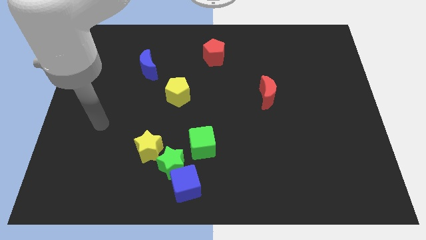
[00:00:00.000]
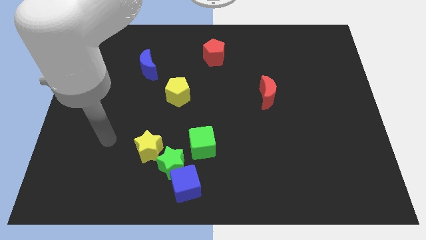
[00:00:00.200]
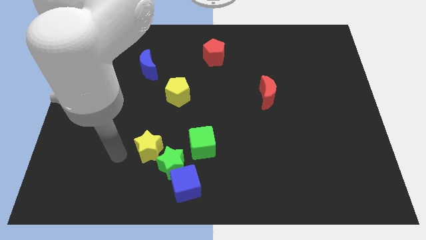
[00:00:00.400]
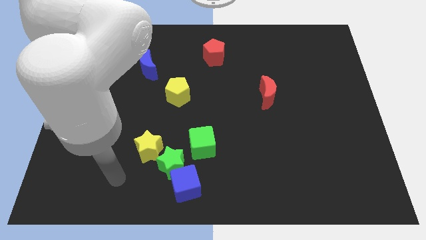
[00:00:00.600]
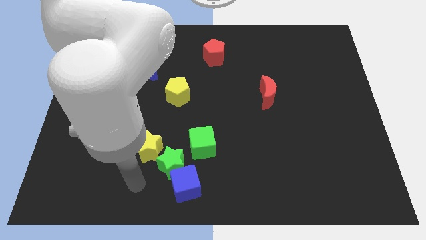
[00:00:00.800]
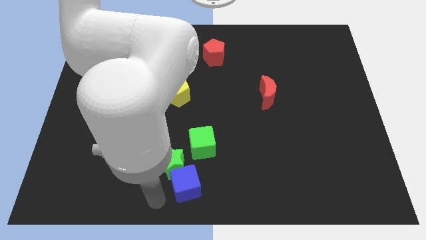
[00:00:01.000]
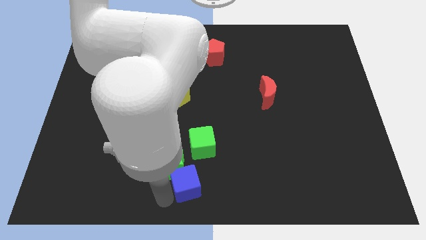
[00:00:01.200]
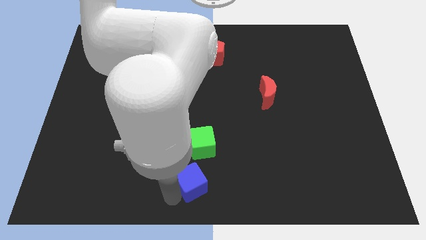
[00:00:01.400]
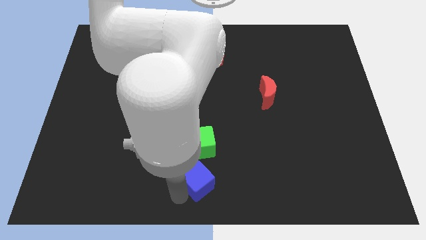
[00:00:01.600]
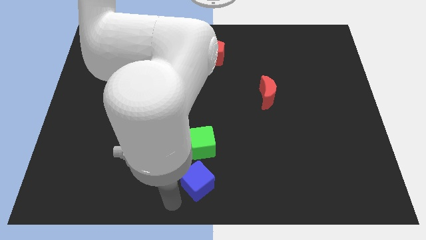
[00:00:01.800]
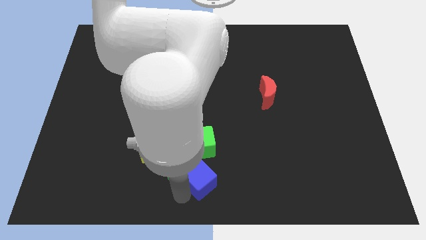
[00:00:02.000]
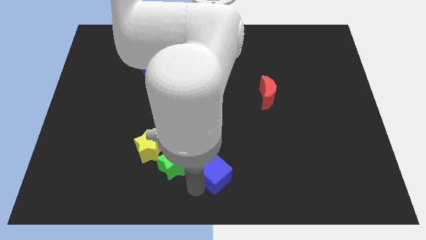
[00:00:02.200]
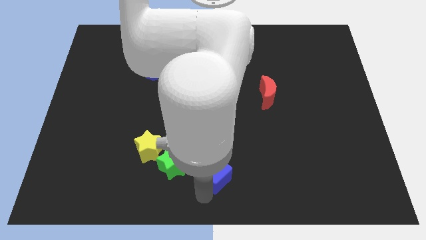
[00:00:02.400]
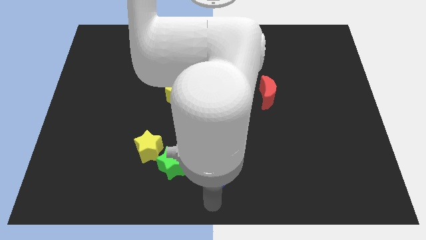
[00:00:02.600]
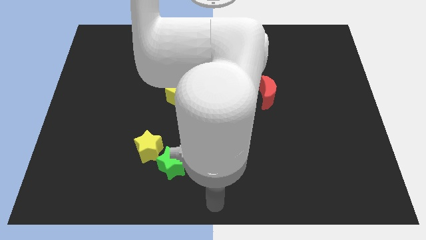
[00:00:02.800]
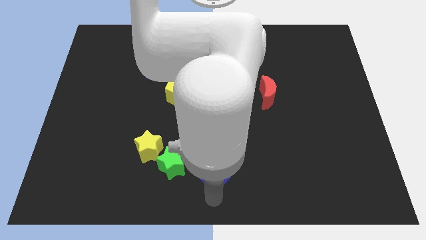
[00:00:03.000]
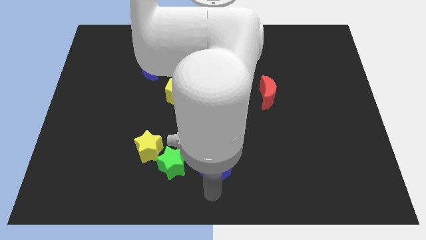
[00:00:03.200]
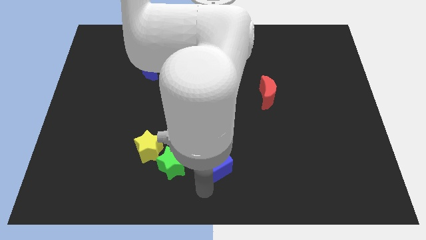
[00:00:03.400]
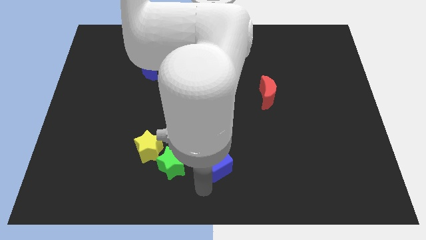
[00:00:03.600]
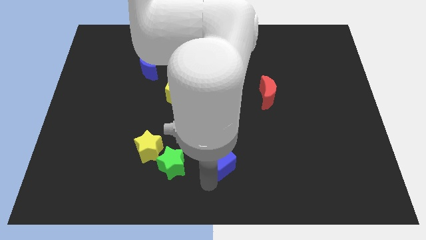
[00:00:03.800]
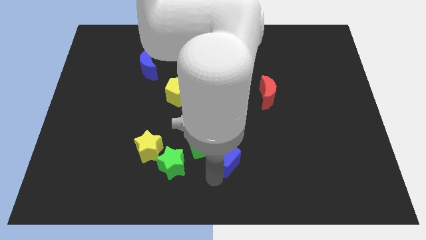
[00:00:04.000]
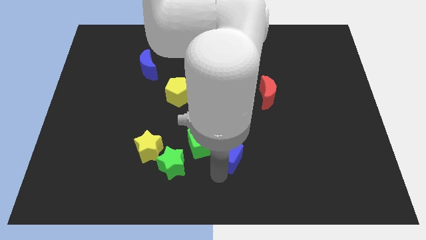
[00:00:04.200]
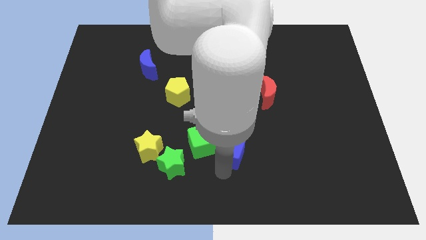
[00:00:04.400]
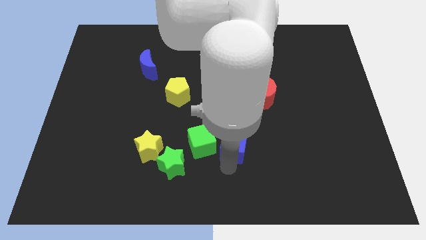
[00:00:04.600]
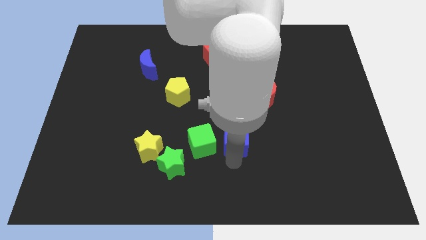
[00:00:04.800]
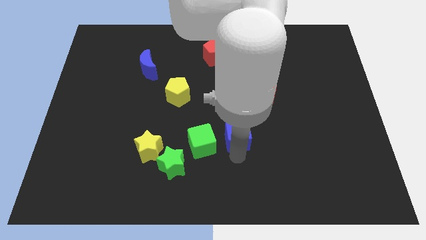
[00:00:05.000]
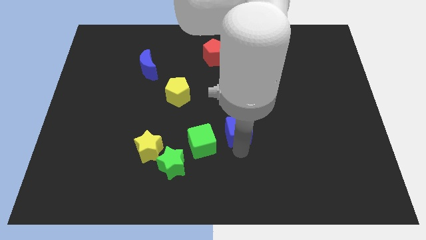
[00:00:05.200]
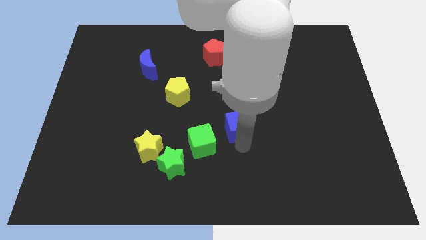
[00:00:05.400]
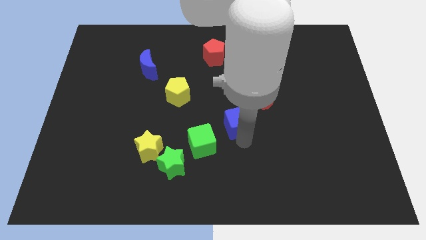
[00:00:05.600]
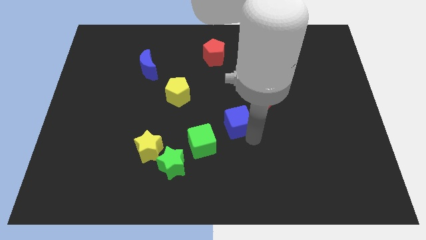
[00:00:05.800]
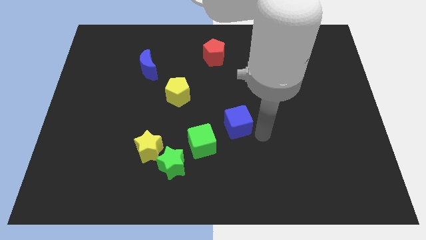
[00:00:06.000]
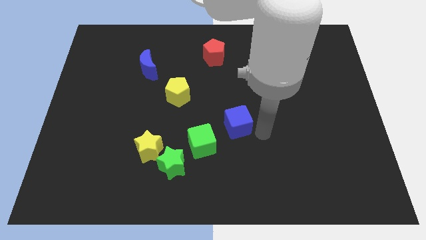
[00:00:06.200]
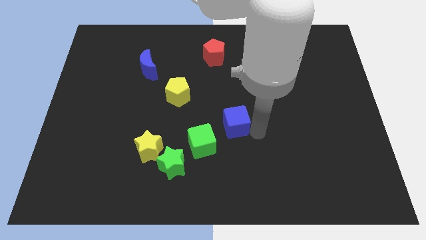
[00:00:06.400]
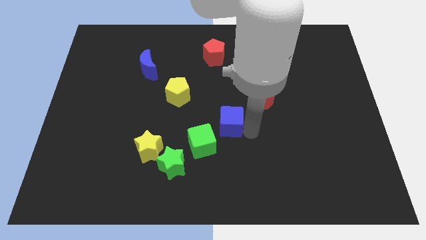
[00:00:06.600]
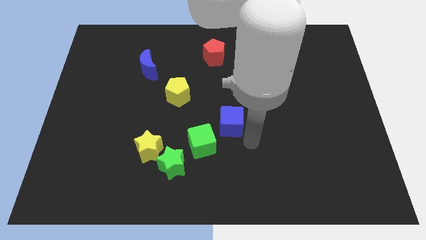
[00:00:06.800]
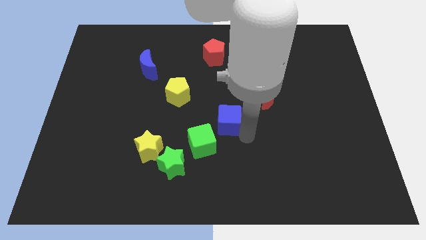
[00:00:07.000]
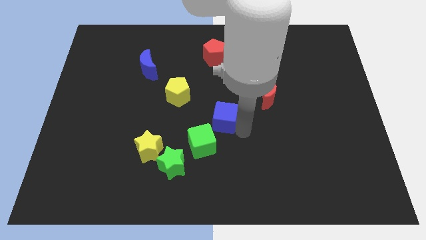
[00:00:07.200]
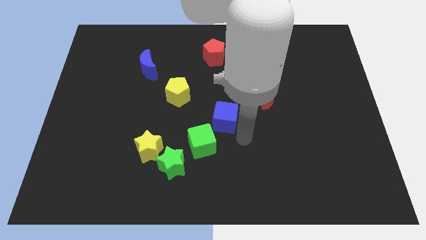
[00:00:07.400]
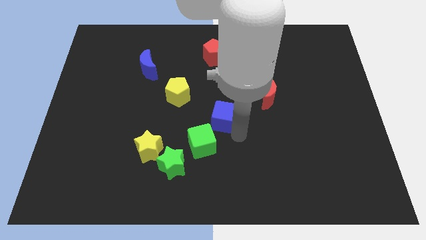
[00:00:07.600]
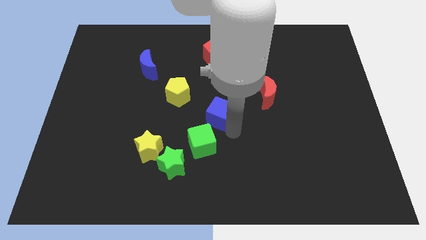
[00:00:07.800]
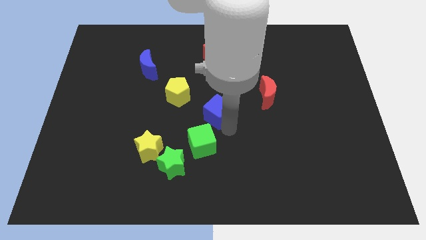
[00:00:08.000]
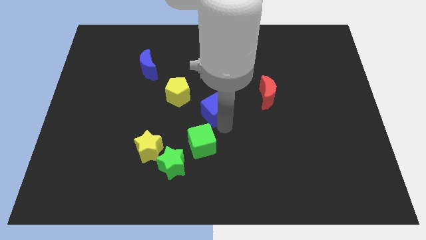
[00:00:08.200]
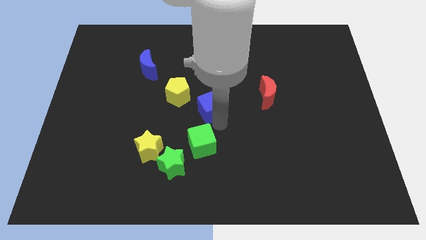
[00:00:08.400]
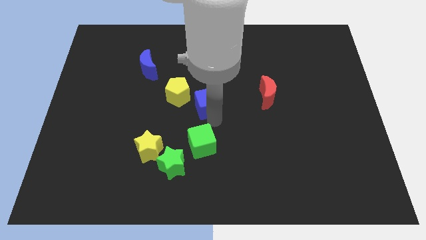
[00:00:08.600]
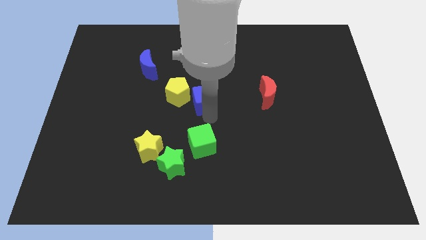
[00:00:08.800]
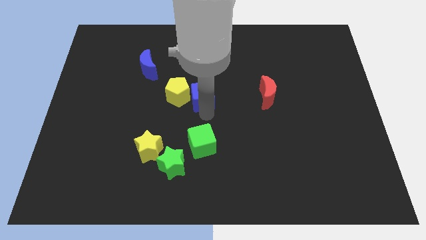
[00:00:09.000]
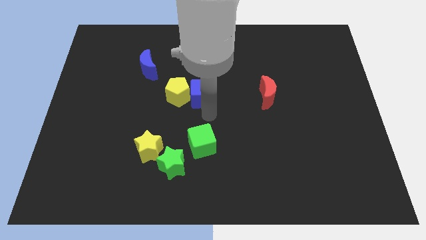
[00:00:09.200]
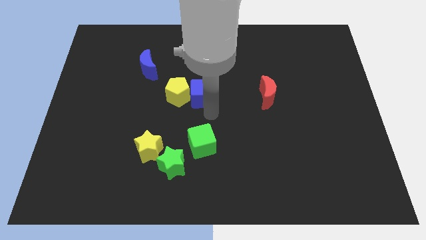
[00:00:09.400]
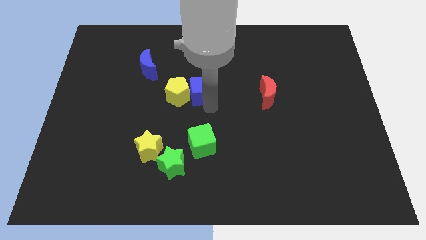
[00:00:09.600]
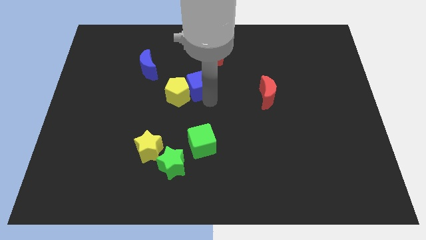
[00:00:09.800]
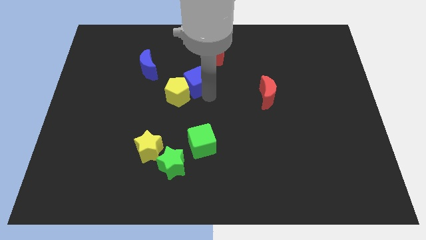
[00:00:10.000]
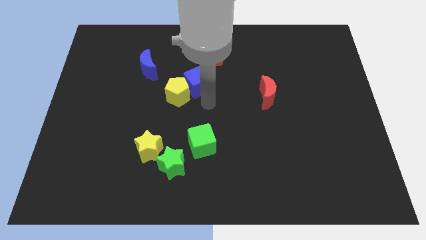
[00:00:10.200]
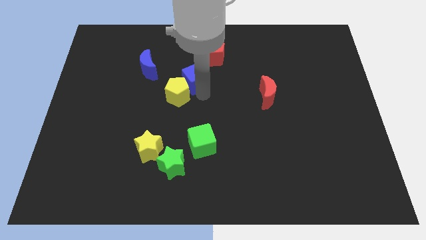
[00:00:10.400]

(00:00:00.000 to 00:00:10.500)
push the blue cube to the right of the blue moon

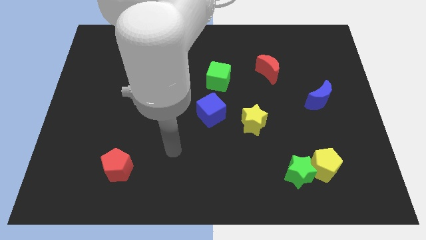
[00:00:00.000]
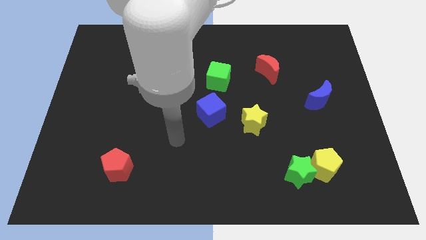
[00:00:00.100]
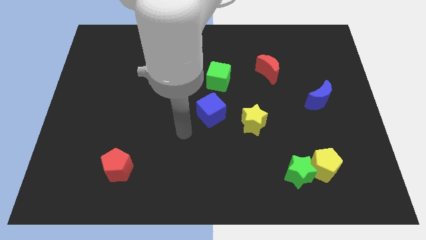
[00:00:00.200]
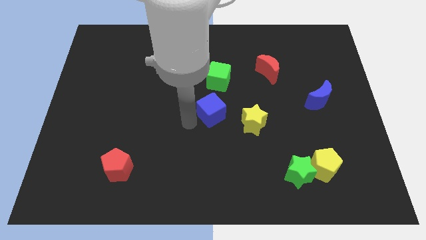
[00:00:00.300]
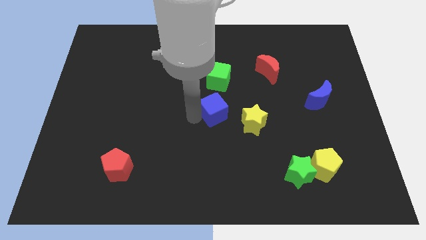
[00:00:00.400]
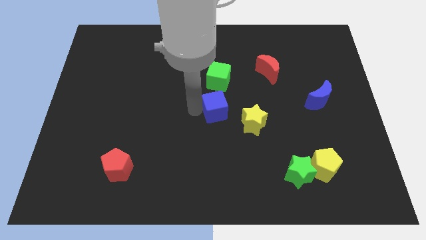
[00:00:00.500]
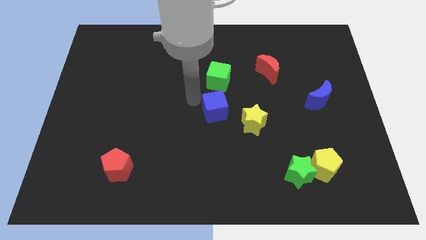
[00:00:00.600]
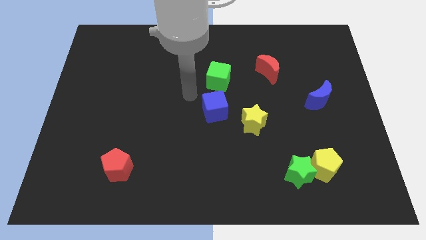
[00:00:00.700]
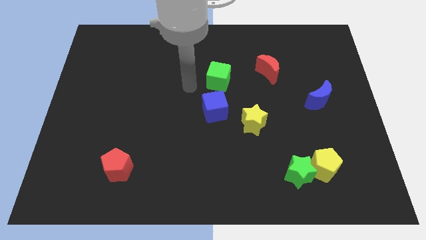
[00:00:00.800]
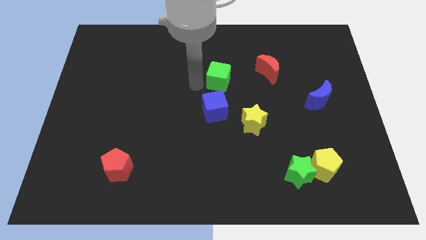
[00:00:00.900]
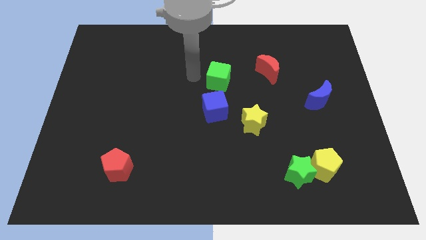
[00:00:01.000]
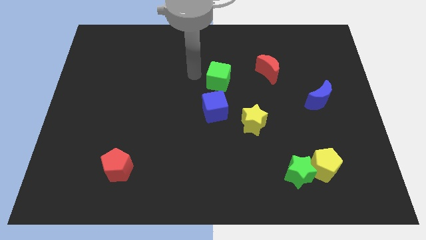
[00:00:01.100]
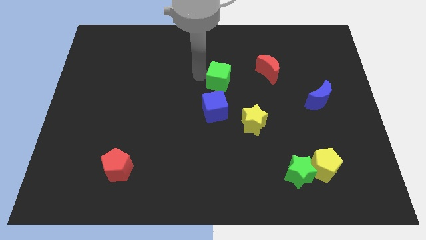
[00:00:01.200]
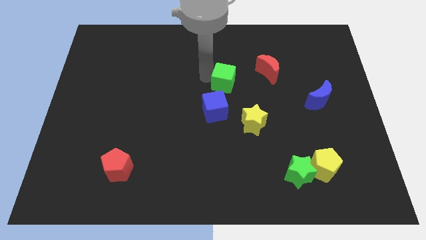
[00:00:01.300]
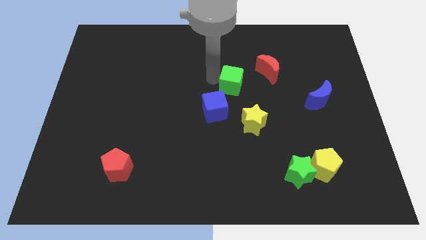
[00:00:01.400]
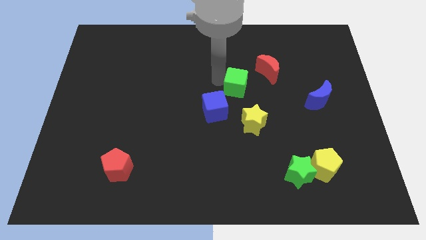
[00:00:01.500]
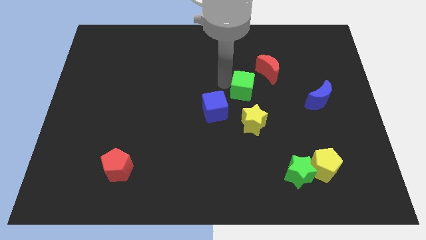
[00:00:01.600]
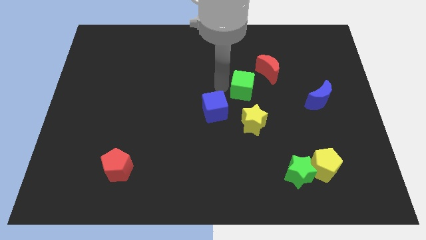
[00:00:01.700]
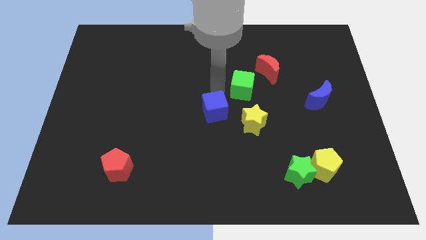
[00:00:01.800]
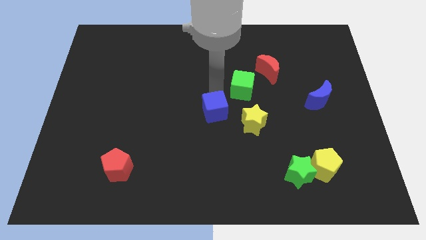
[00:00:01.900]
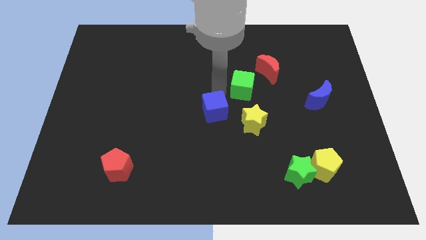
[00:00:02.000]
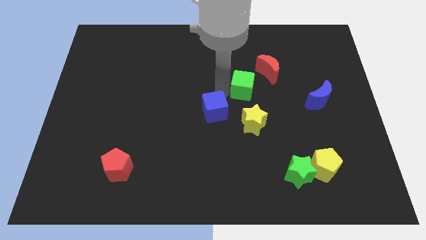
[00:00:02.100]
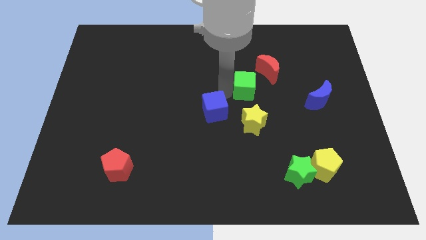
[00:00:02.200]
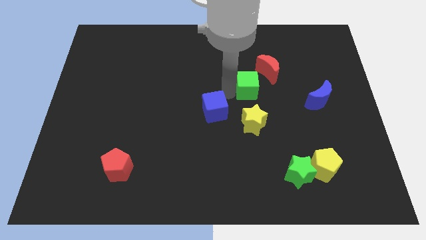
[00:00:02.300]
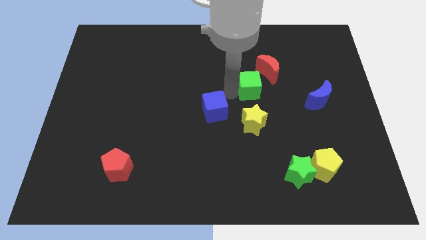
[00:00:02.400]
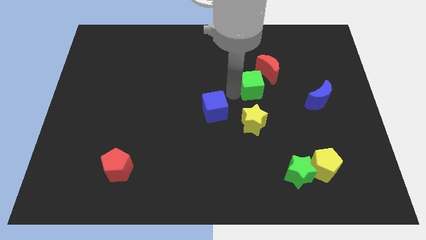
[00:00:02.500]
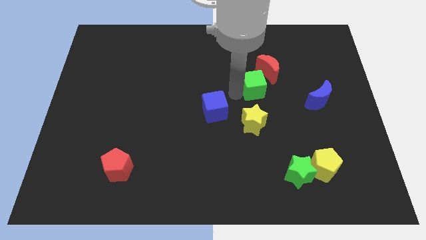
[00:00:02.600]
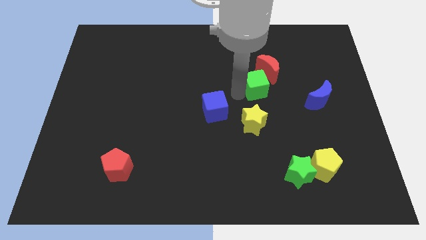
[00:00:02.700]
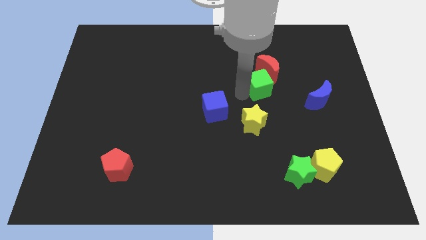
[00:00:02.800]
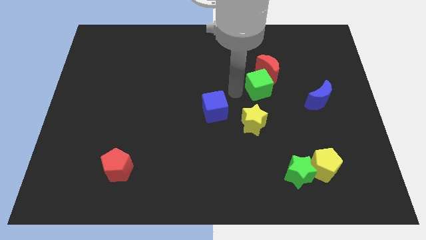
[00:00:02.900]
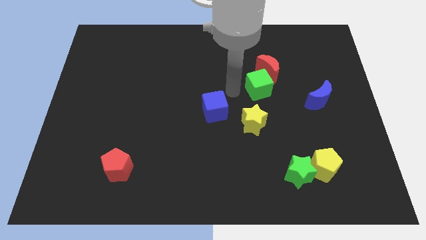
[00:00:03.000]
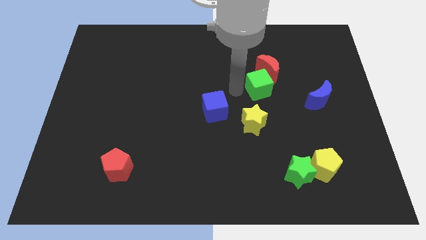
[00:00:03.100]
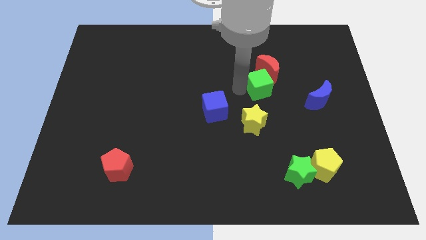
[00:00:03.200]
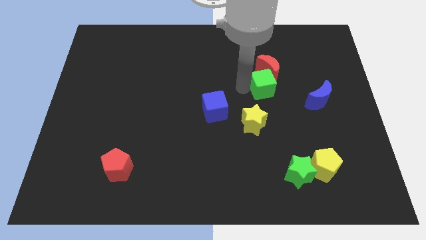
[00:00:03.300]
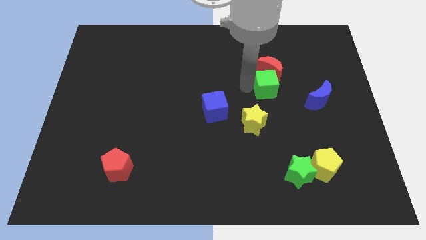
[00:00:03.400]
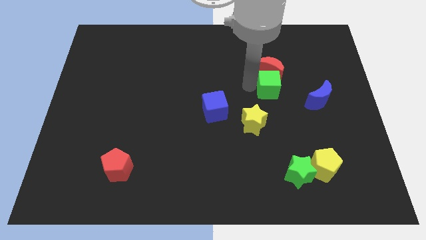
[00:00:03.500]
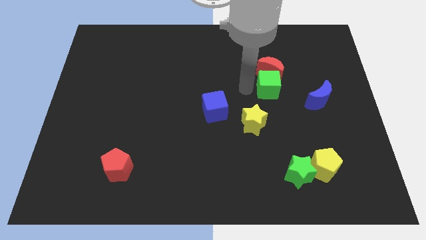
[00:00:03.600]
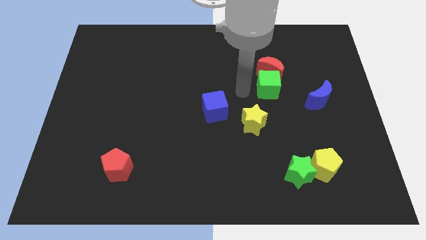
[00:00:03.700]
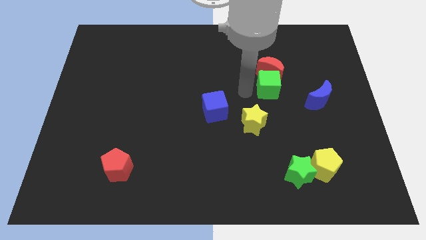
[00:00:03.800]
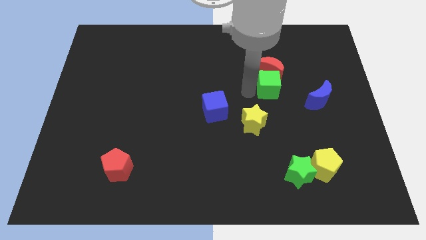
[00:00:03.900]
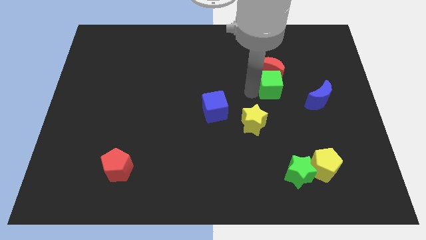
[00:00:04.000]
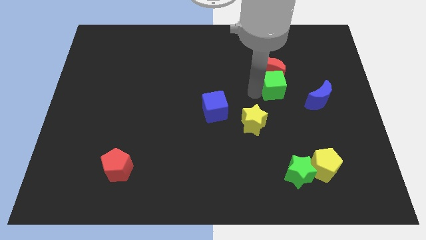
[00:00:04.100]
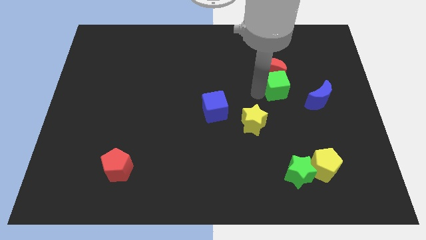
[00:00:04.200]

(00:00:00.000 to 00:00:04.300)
put the green cube to the top left side of the blue moon
